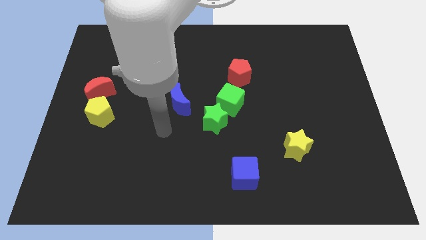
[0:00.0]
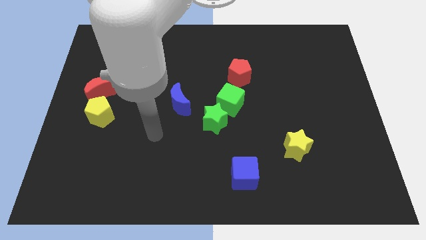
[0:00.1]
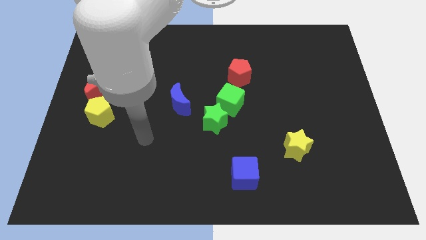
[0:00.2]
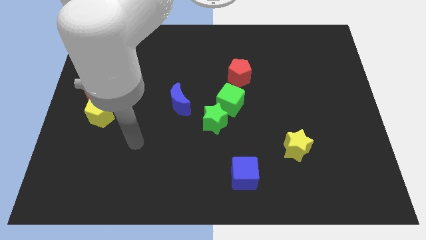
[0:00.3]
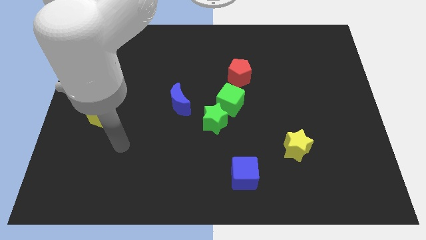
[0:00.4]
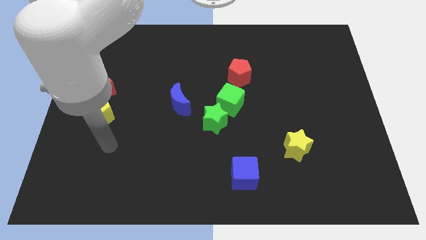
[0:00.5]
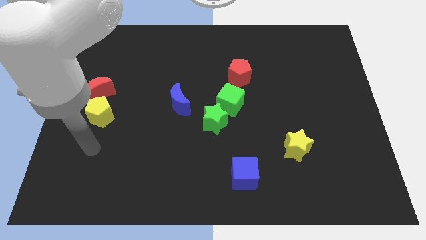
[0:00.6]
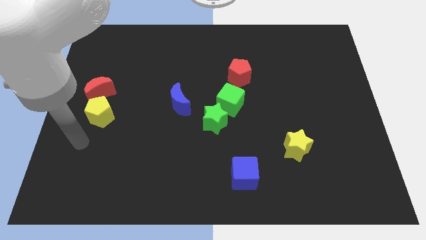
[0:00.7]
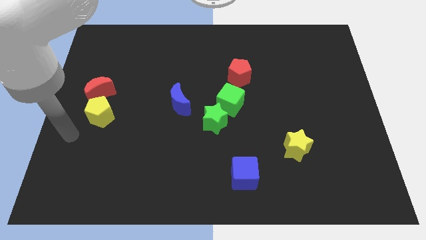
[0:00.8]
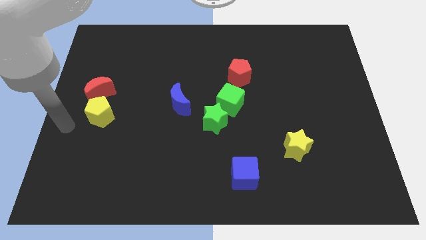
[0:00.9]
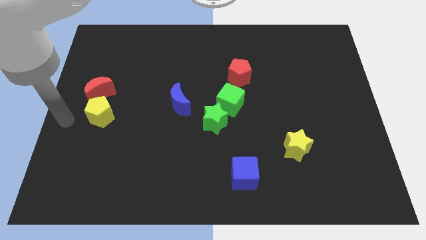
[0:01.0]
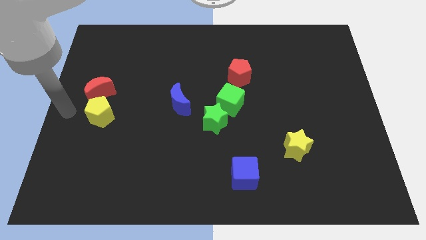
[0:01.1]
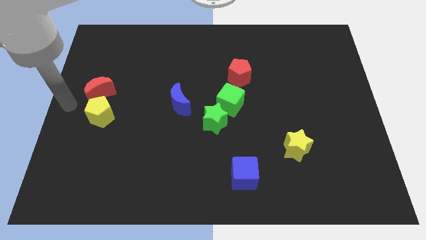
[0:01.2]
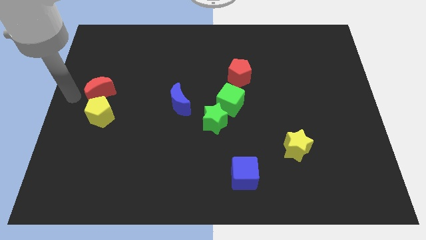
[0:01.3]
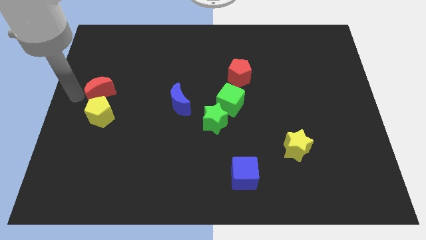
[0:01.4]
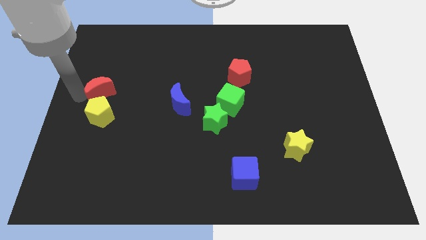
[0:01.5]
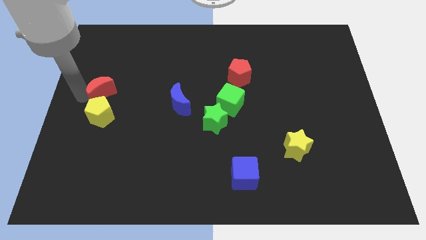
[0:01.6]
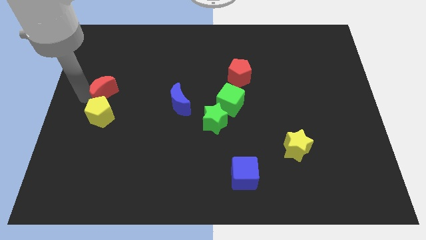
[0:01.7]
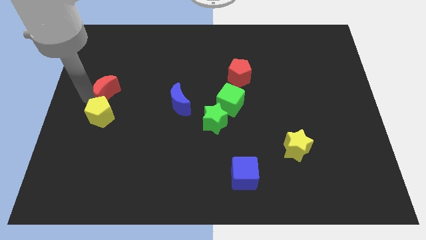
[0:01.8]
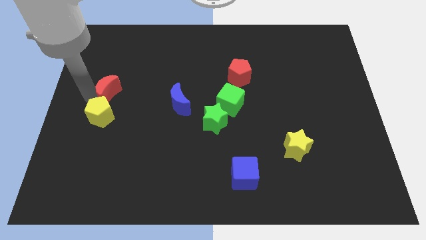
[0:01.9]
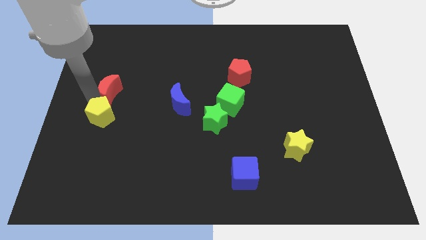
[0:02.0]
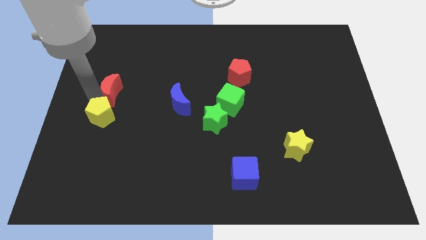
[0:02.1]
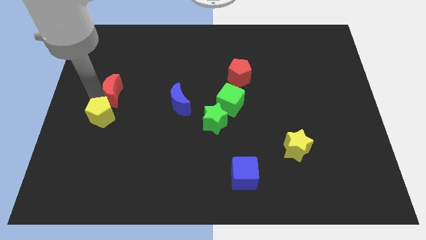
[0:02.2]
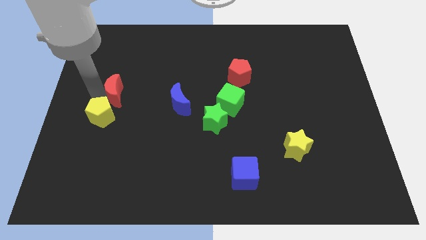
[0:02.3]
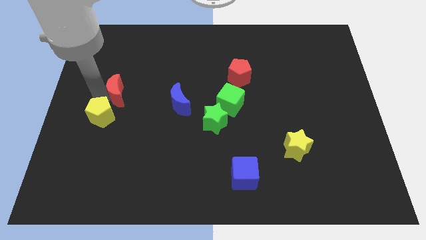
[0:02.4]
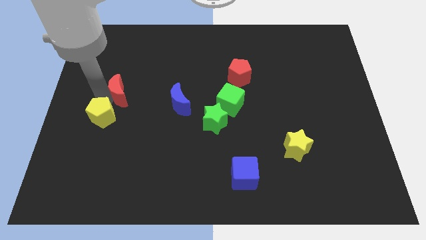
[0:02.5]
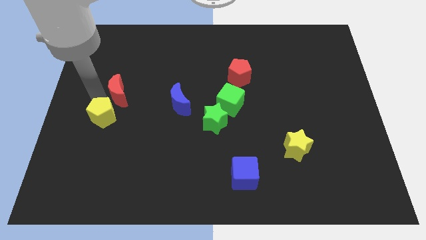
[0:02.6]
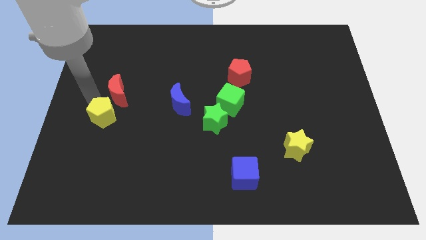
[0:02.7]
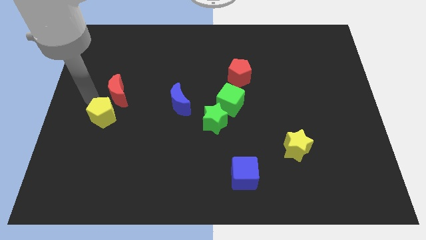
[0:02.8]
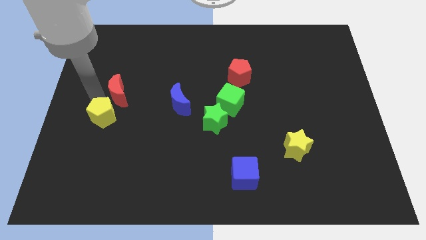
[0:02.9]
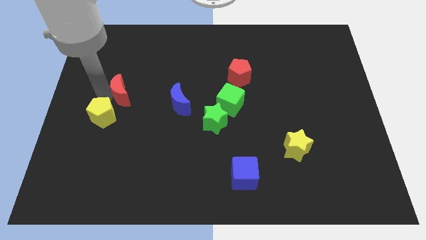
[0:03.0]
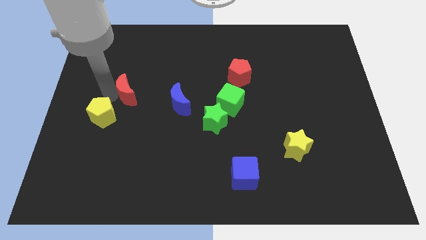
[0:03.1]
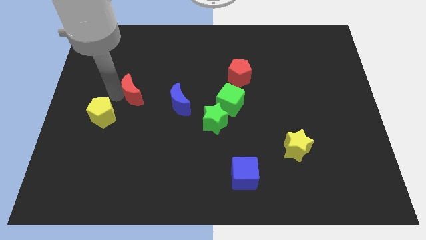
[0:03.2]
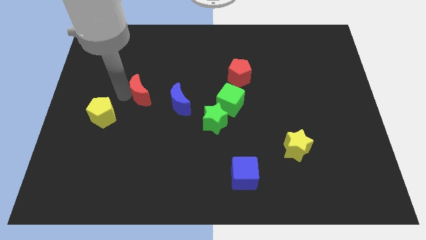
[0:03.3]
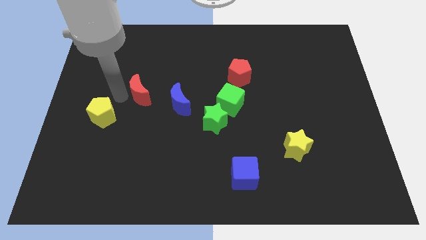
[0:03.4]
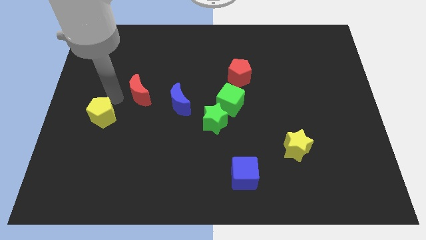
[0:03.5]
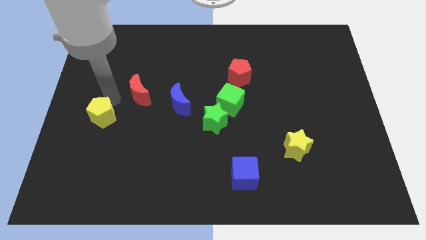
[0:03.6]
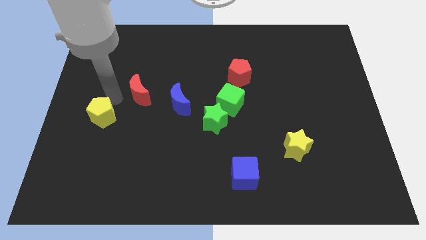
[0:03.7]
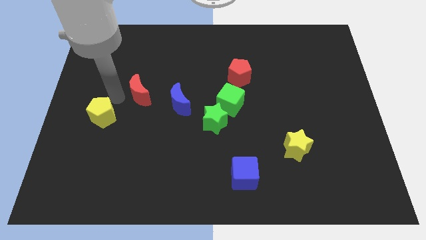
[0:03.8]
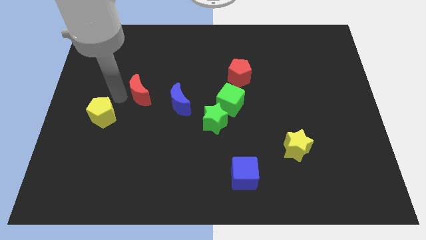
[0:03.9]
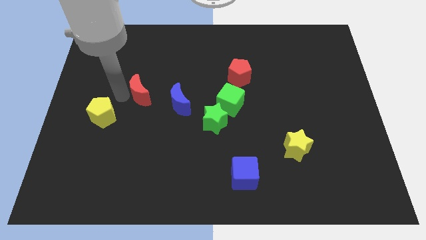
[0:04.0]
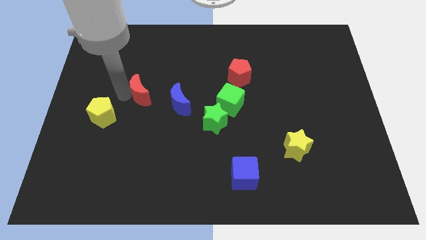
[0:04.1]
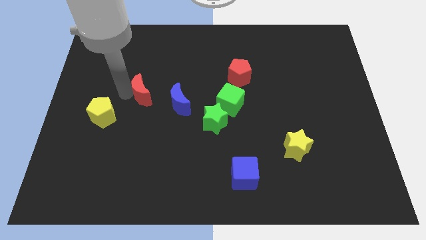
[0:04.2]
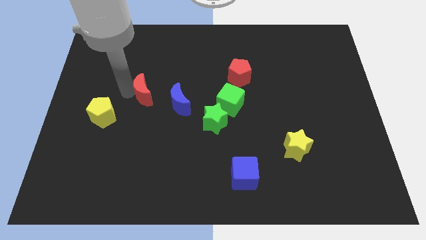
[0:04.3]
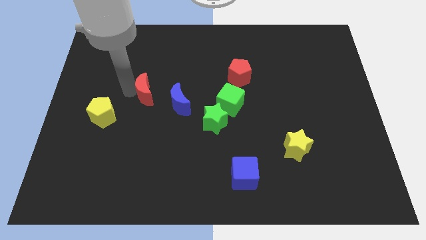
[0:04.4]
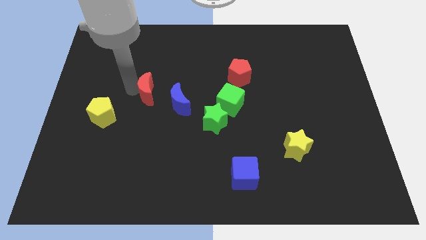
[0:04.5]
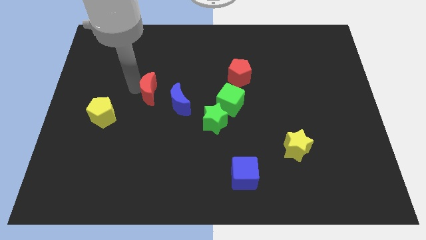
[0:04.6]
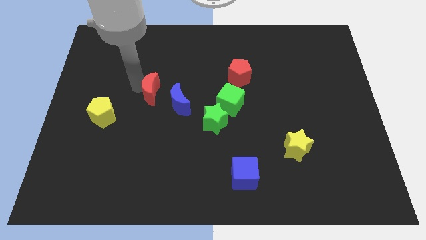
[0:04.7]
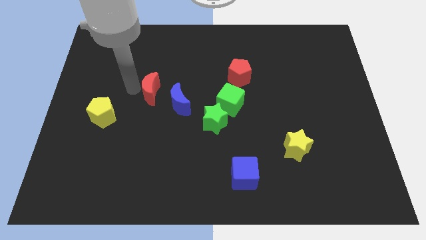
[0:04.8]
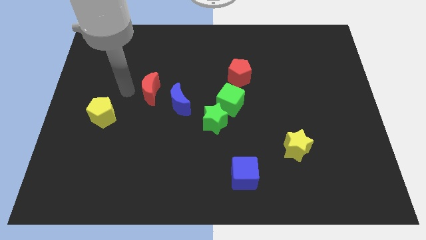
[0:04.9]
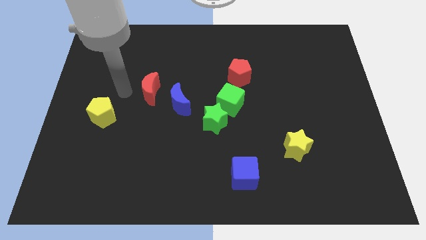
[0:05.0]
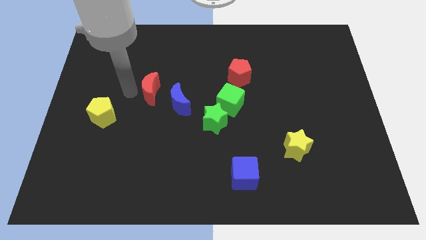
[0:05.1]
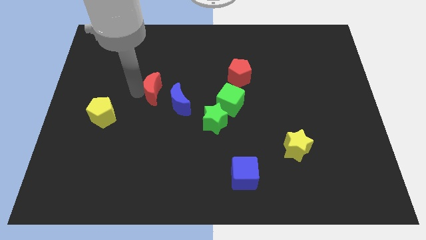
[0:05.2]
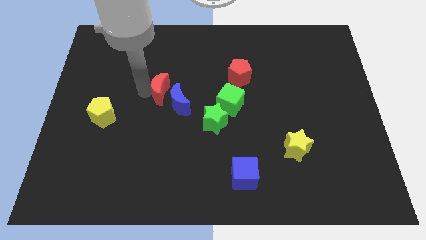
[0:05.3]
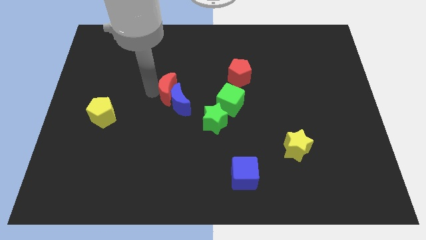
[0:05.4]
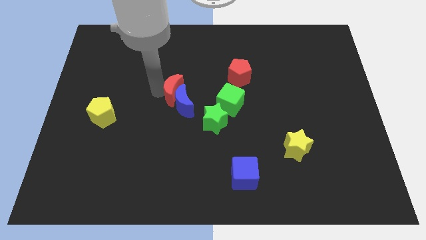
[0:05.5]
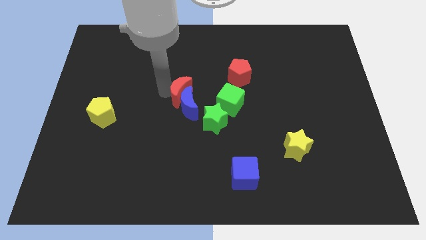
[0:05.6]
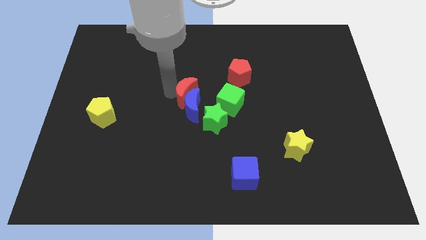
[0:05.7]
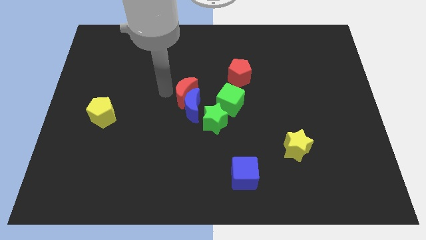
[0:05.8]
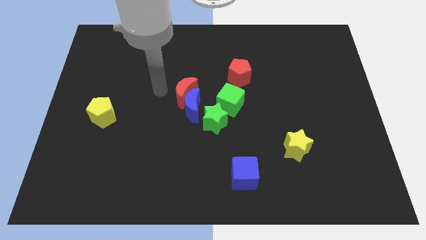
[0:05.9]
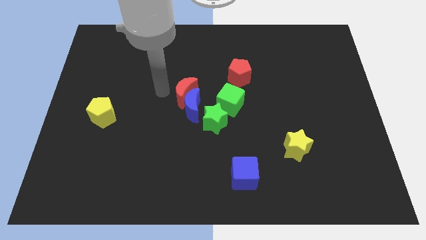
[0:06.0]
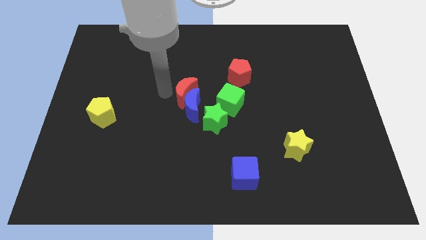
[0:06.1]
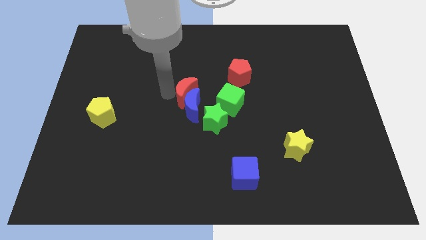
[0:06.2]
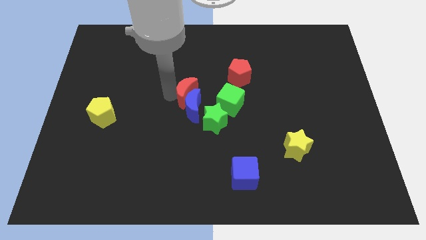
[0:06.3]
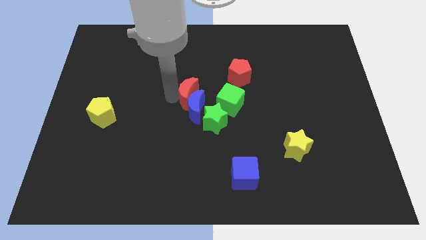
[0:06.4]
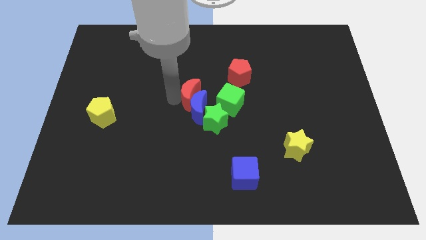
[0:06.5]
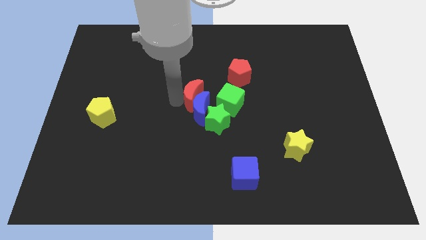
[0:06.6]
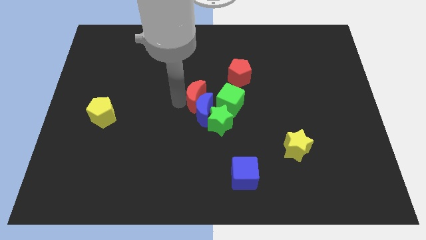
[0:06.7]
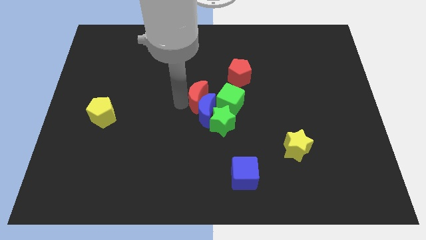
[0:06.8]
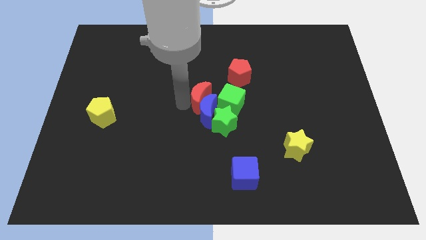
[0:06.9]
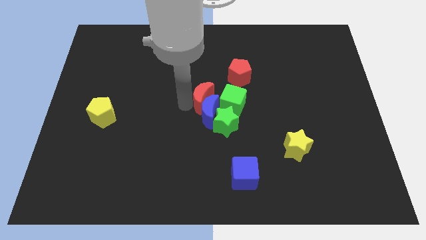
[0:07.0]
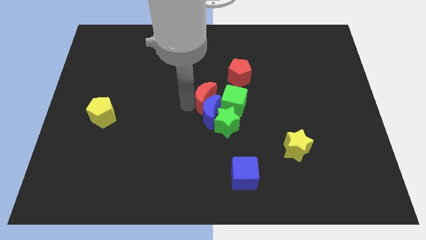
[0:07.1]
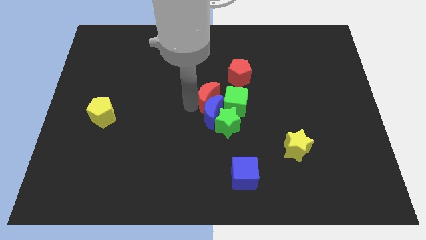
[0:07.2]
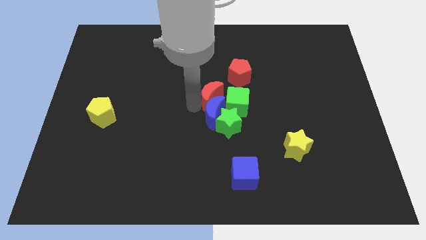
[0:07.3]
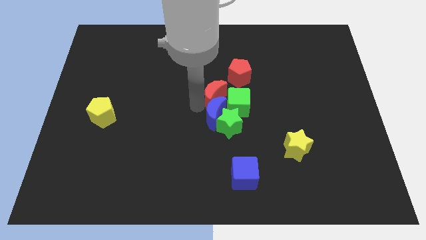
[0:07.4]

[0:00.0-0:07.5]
slide the red moon next to the green cube

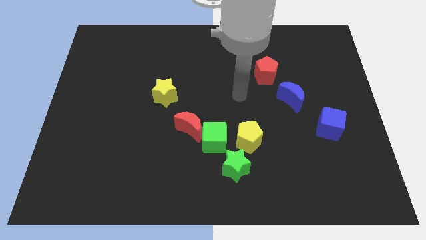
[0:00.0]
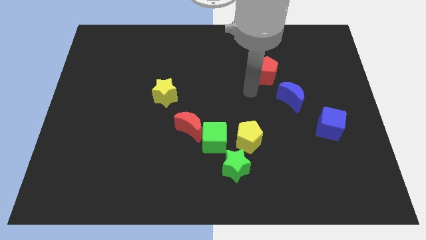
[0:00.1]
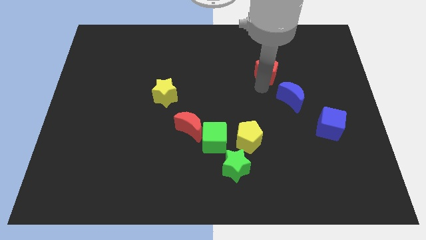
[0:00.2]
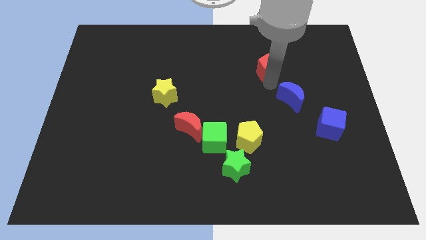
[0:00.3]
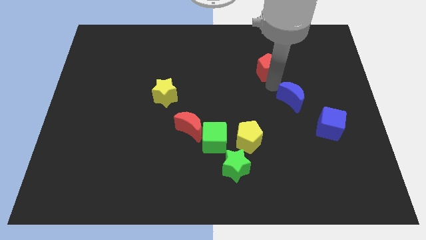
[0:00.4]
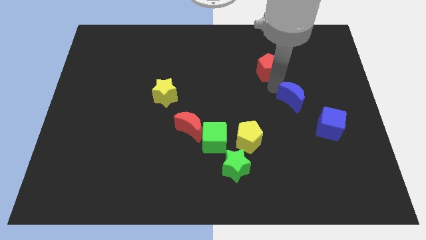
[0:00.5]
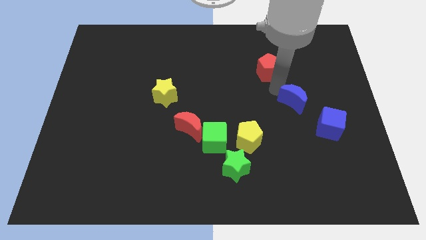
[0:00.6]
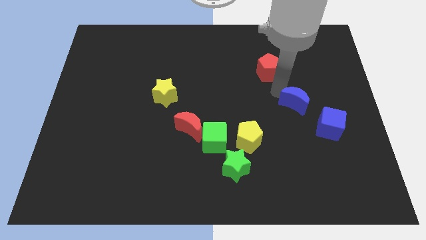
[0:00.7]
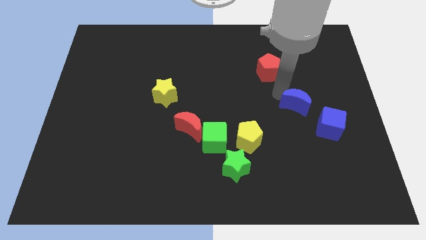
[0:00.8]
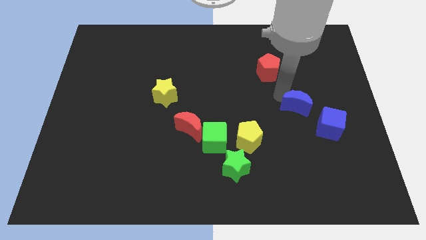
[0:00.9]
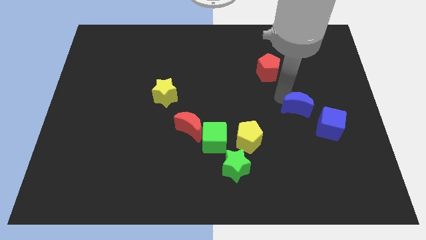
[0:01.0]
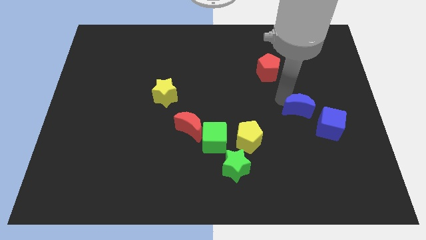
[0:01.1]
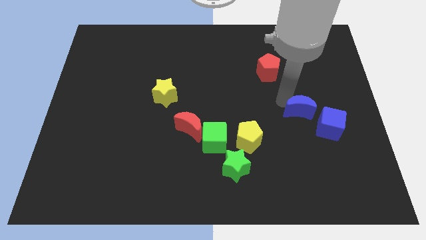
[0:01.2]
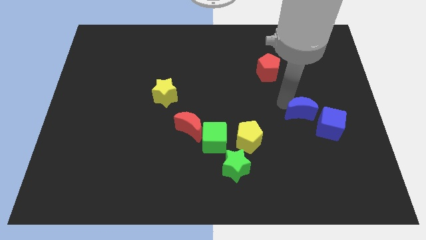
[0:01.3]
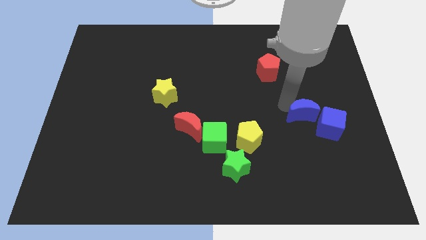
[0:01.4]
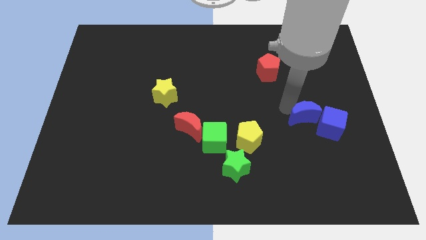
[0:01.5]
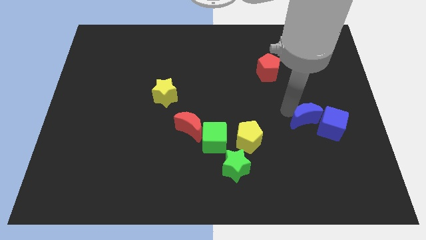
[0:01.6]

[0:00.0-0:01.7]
slide the blue moon next to the blue cube
